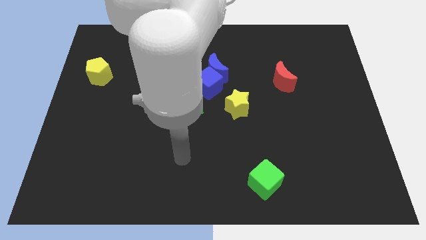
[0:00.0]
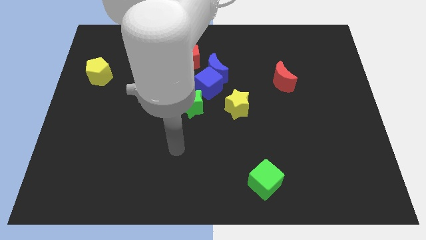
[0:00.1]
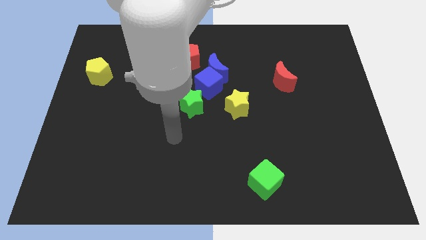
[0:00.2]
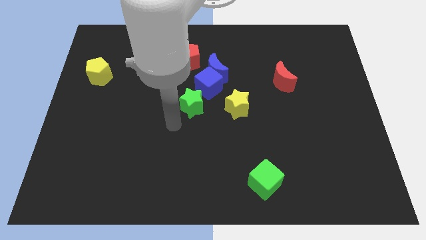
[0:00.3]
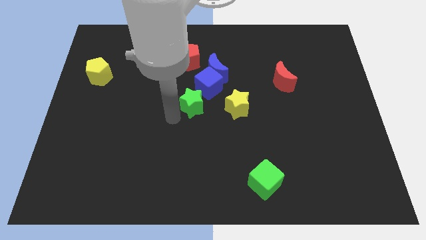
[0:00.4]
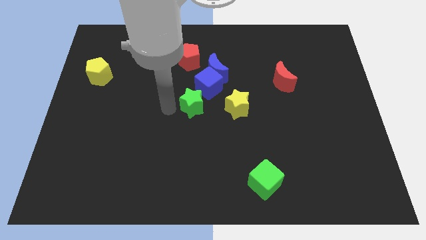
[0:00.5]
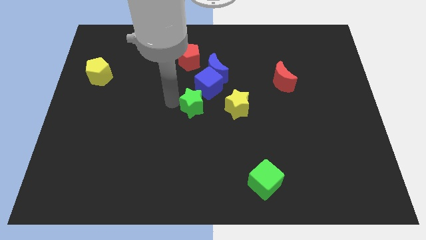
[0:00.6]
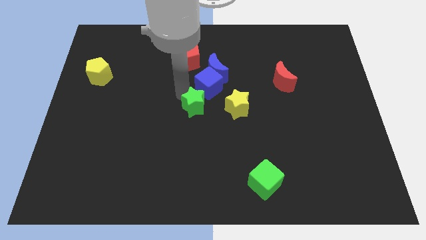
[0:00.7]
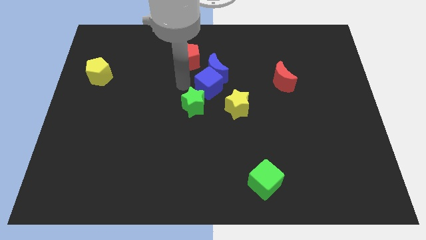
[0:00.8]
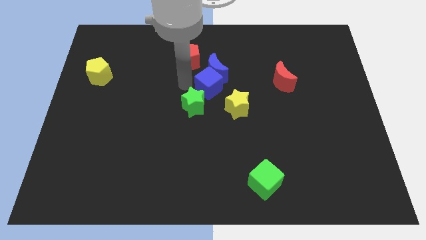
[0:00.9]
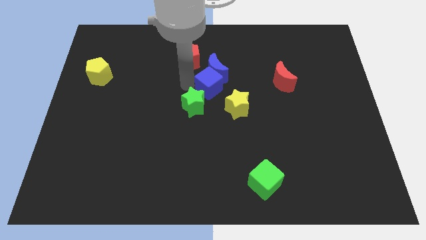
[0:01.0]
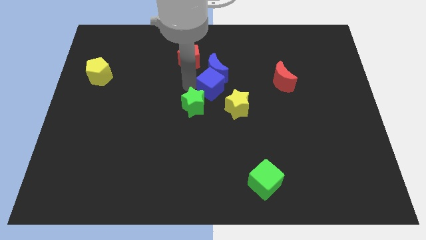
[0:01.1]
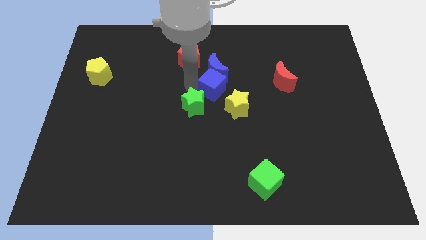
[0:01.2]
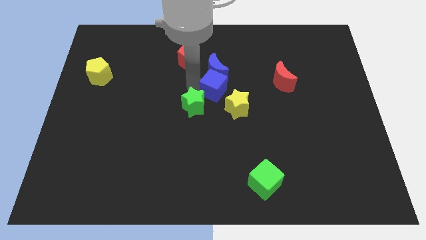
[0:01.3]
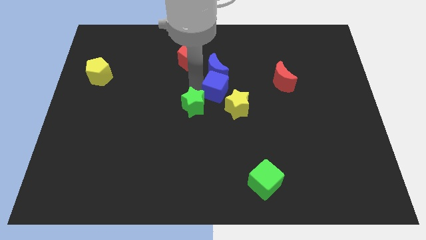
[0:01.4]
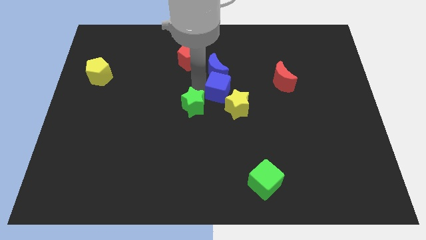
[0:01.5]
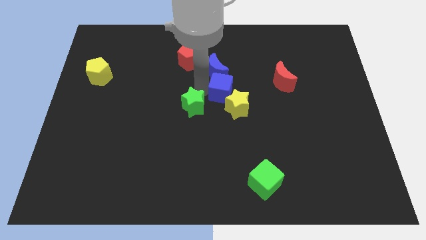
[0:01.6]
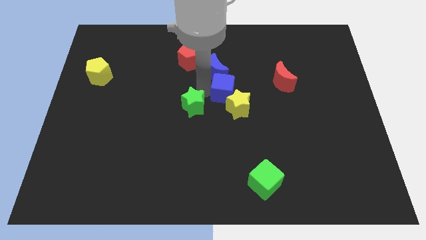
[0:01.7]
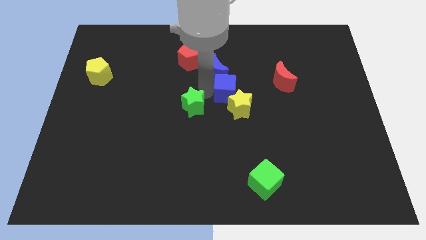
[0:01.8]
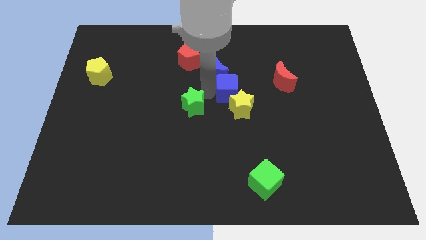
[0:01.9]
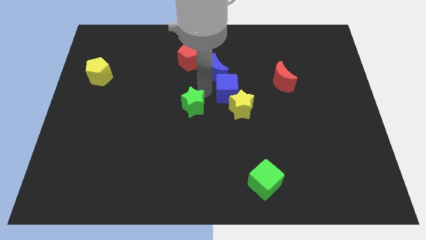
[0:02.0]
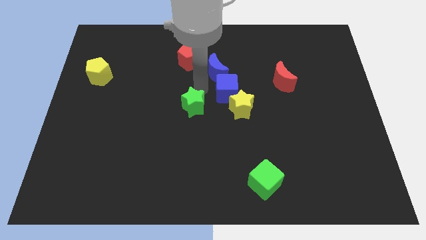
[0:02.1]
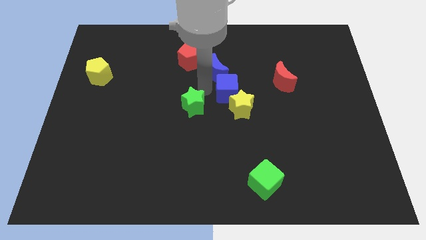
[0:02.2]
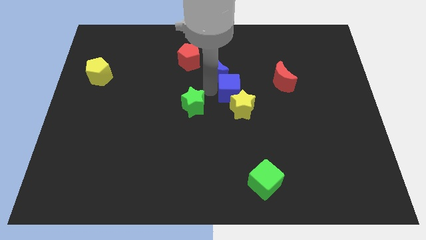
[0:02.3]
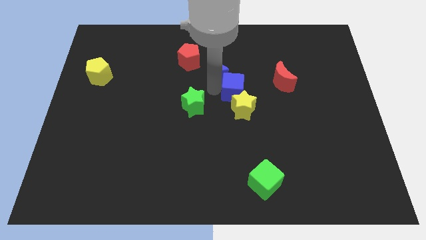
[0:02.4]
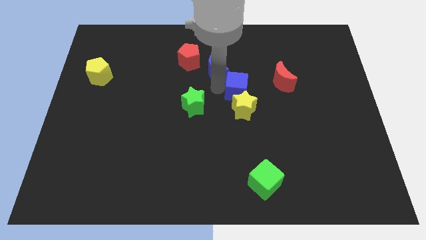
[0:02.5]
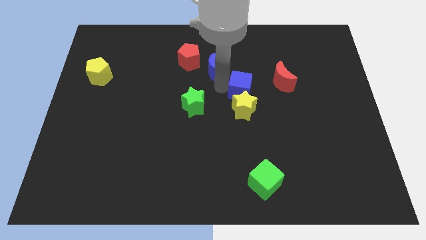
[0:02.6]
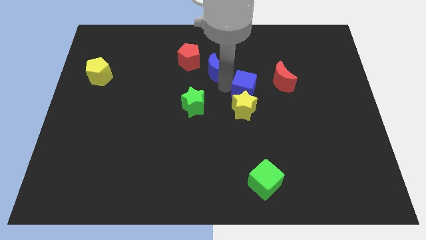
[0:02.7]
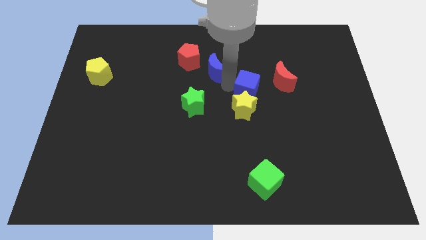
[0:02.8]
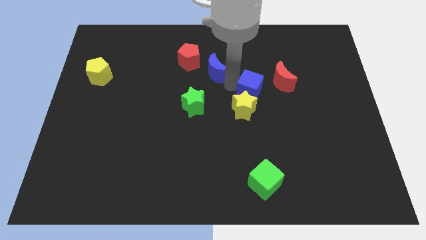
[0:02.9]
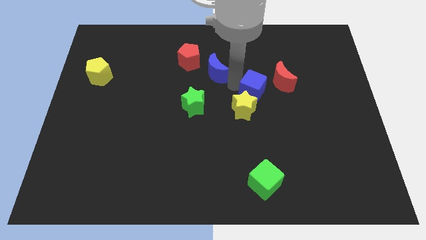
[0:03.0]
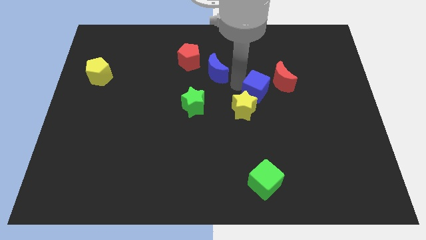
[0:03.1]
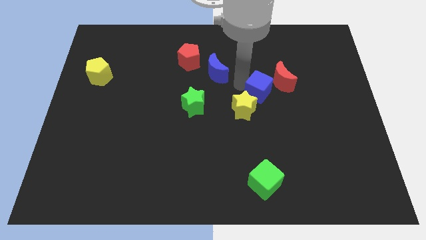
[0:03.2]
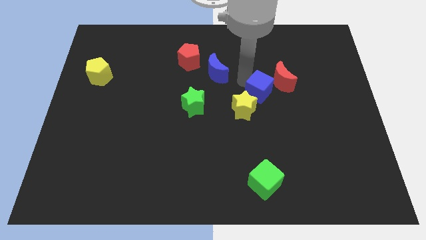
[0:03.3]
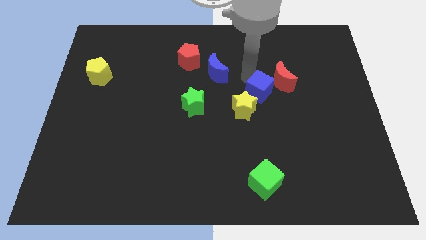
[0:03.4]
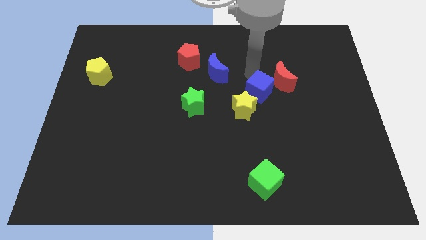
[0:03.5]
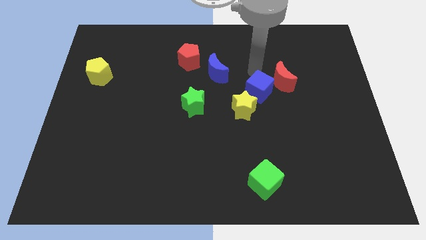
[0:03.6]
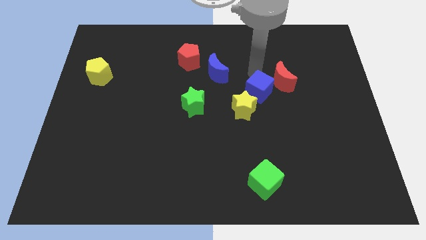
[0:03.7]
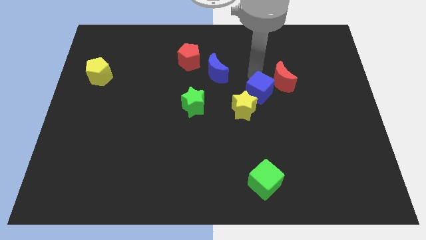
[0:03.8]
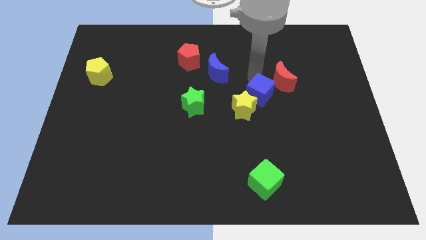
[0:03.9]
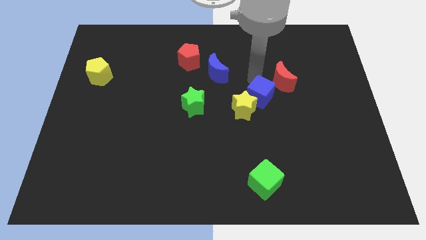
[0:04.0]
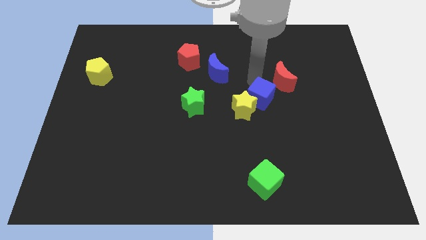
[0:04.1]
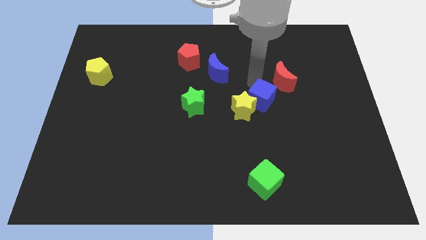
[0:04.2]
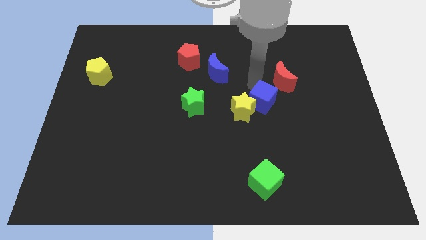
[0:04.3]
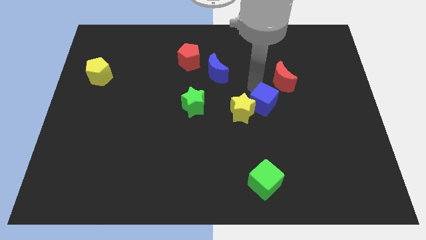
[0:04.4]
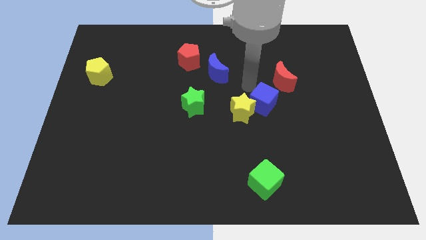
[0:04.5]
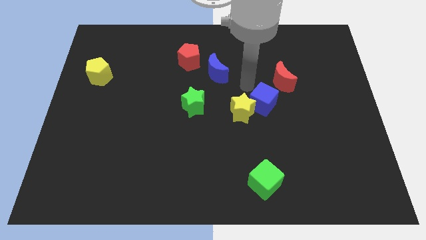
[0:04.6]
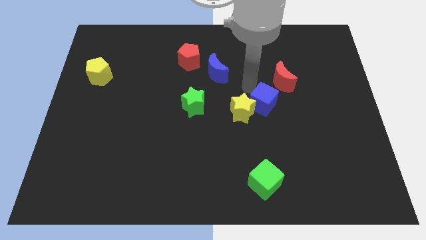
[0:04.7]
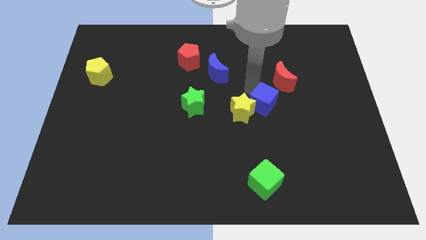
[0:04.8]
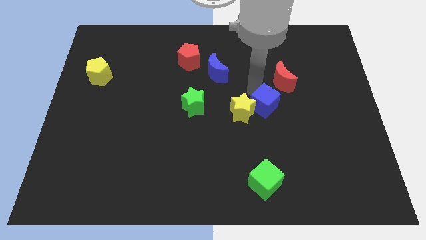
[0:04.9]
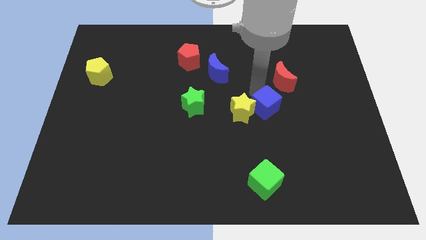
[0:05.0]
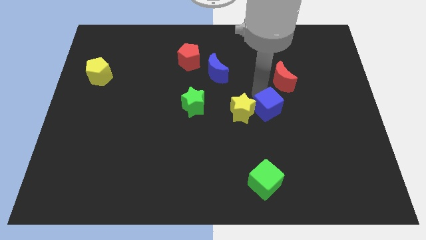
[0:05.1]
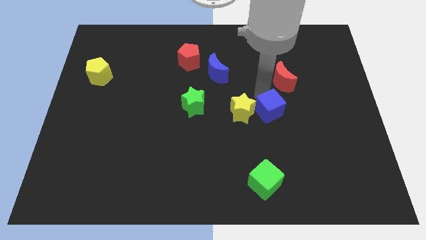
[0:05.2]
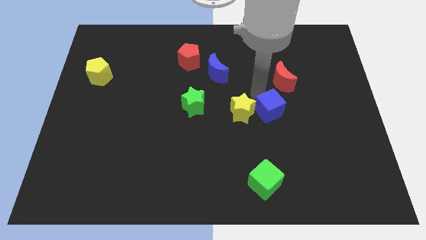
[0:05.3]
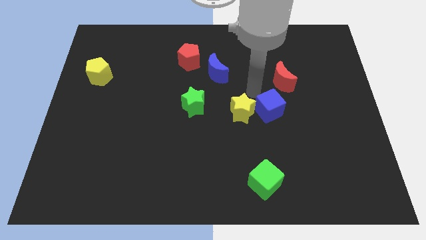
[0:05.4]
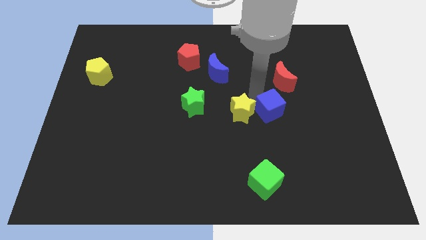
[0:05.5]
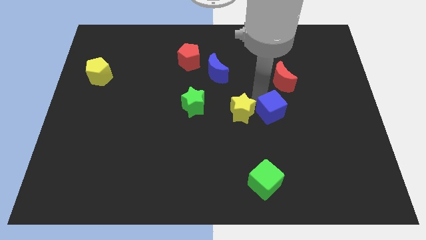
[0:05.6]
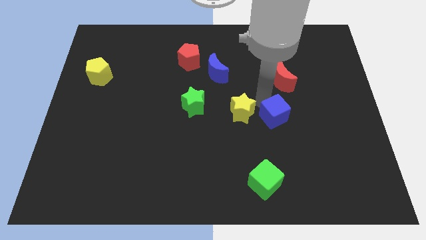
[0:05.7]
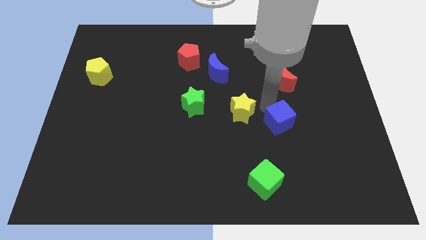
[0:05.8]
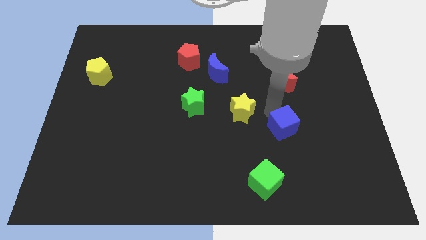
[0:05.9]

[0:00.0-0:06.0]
slide the blue cube down and right

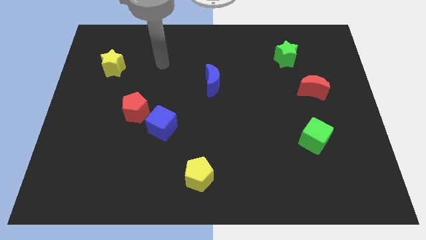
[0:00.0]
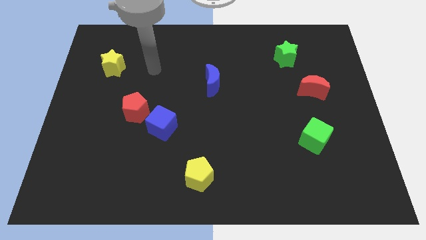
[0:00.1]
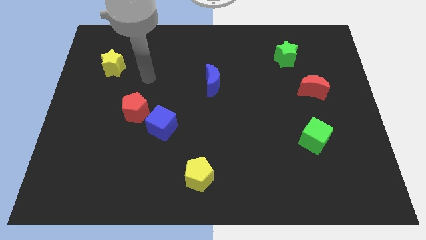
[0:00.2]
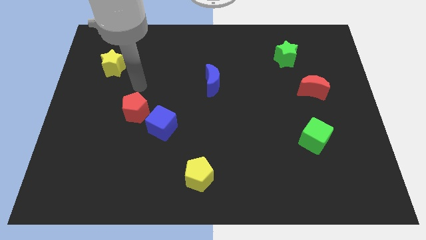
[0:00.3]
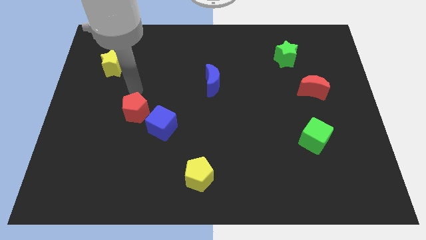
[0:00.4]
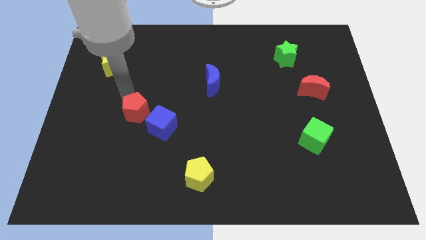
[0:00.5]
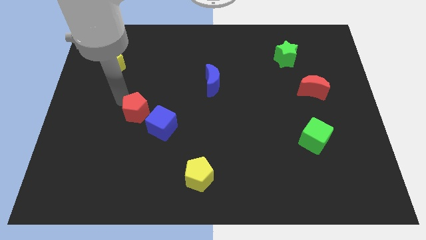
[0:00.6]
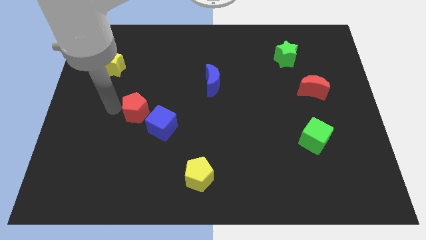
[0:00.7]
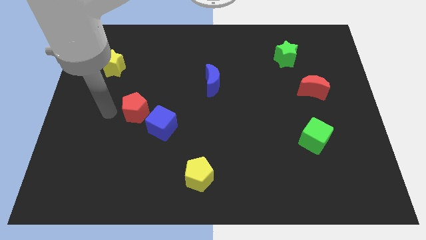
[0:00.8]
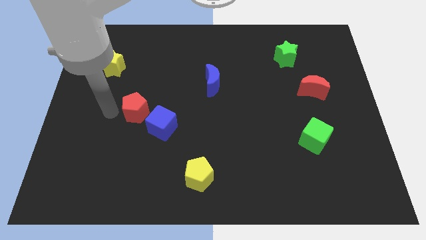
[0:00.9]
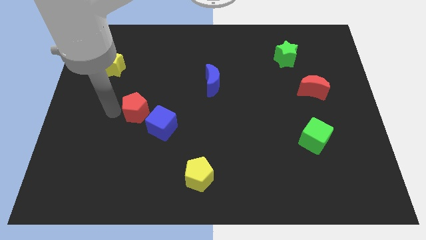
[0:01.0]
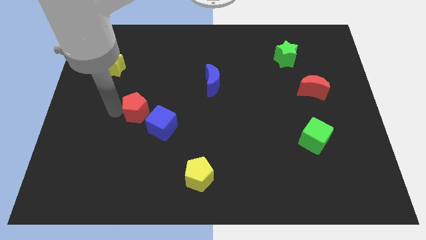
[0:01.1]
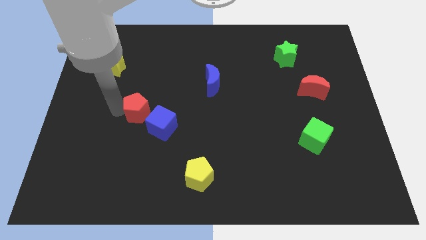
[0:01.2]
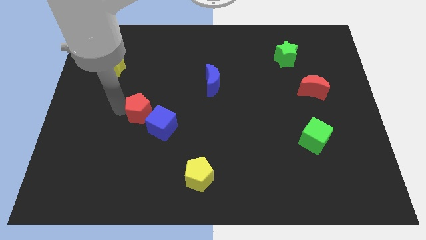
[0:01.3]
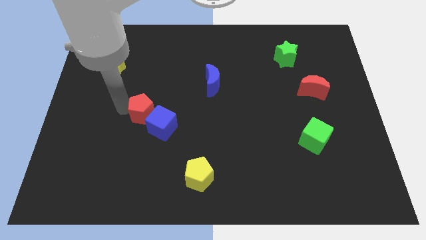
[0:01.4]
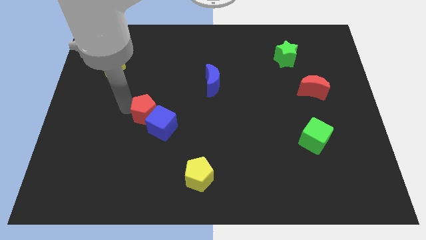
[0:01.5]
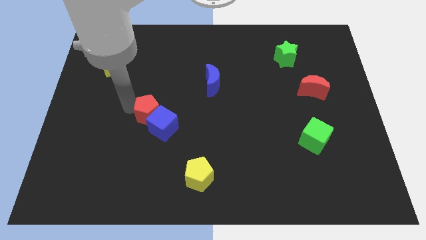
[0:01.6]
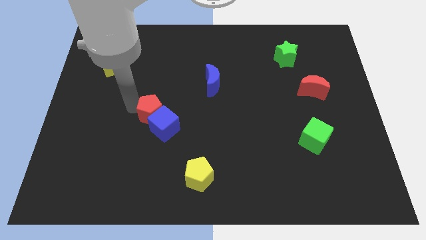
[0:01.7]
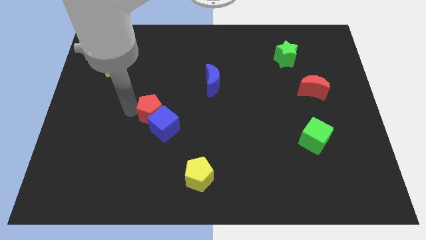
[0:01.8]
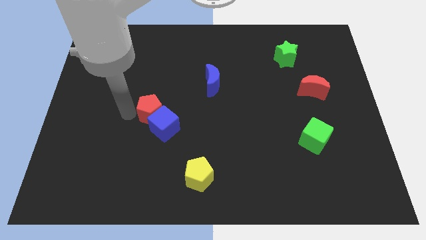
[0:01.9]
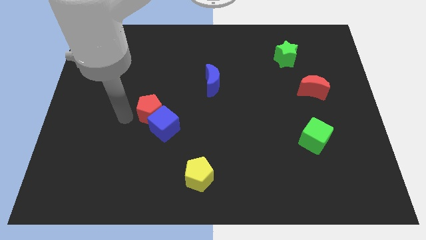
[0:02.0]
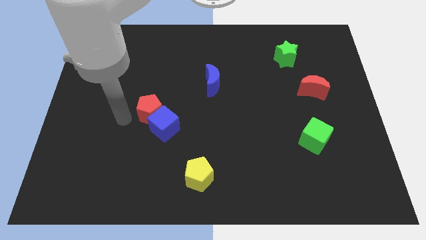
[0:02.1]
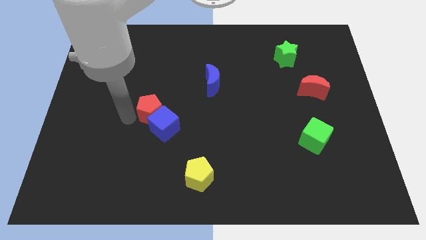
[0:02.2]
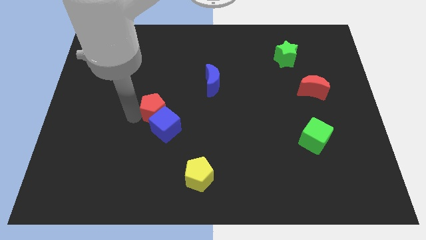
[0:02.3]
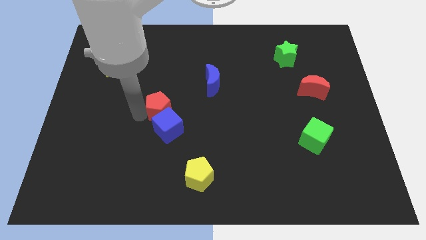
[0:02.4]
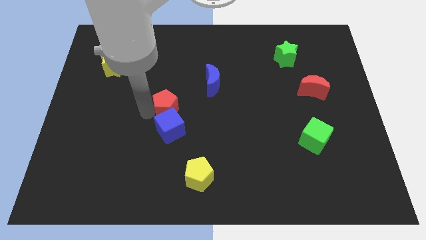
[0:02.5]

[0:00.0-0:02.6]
slightly move the red pentagon to the right
